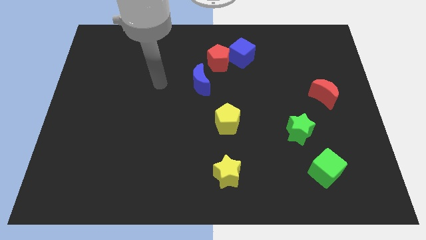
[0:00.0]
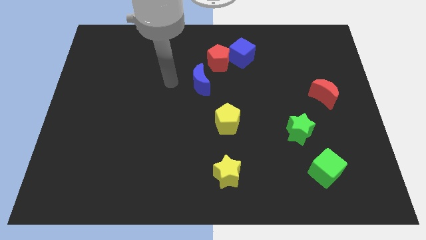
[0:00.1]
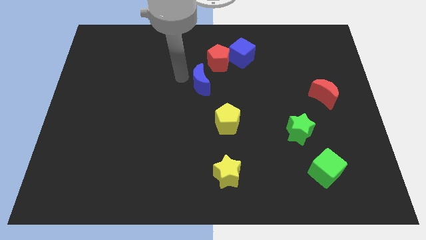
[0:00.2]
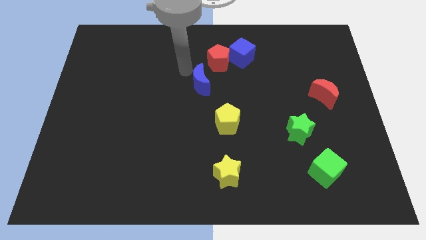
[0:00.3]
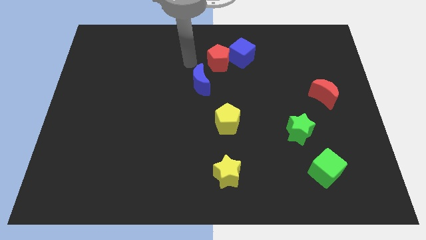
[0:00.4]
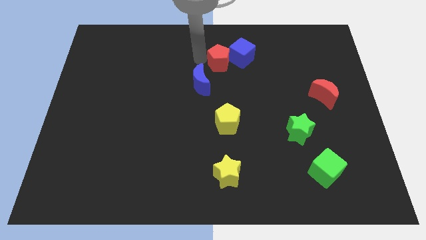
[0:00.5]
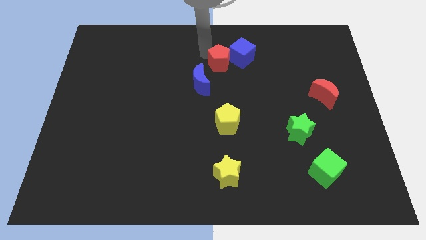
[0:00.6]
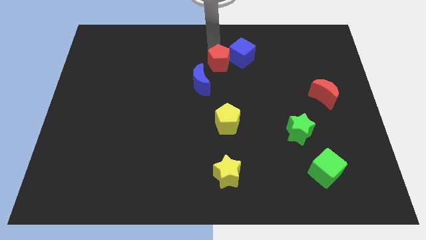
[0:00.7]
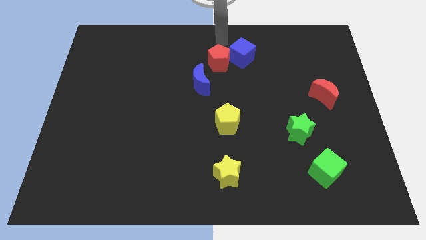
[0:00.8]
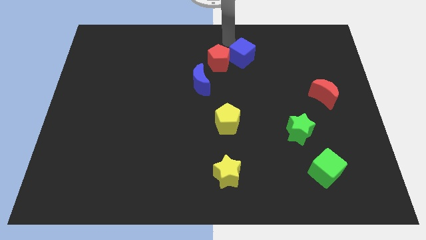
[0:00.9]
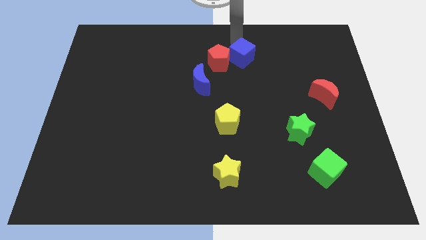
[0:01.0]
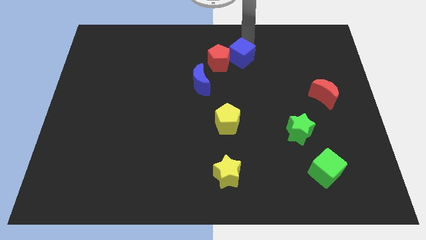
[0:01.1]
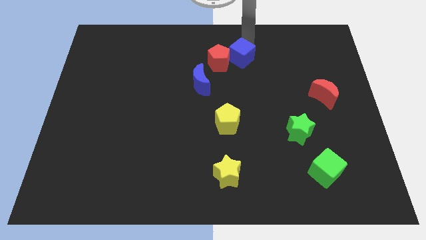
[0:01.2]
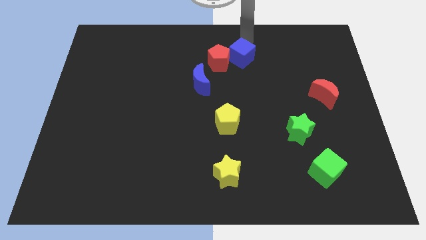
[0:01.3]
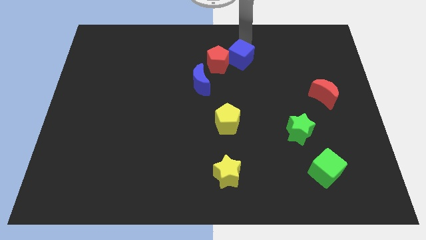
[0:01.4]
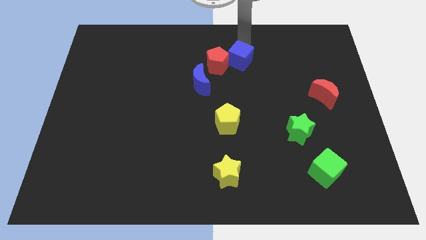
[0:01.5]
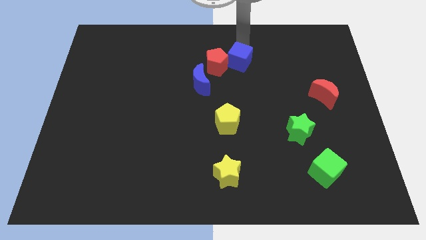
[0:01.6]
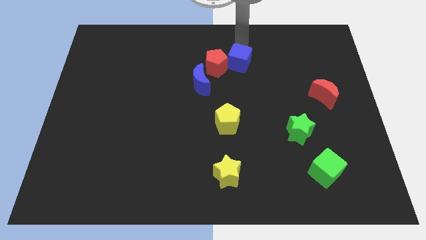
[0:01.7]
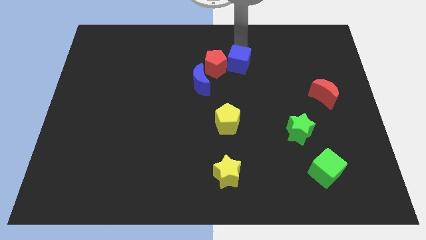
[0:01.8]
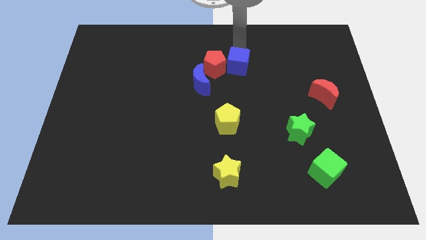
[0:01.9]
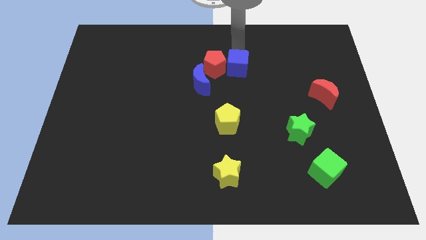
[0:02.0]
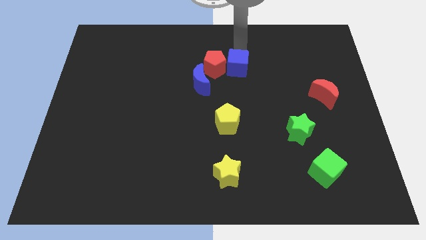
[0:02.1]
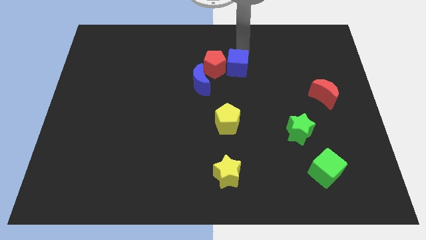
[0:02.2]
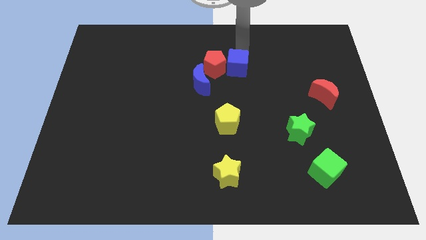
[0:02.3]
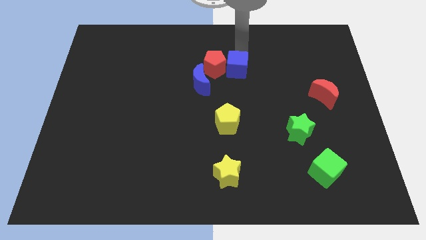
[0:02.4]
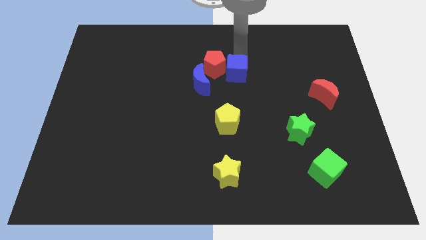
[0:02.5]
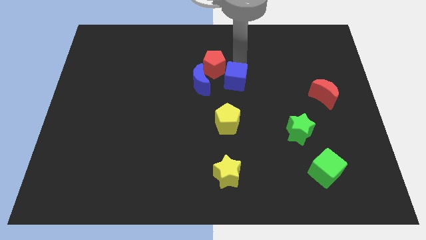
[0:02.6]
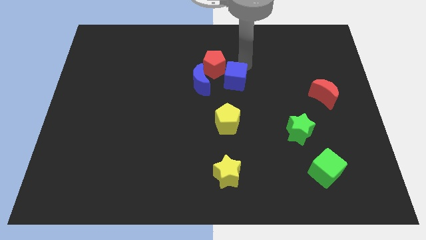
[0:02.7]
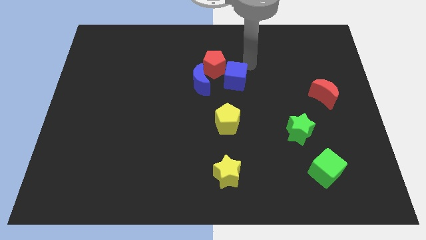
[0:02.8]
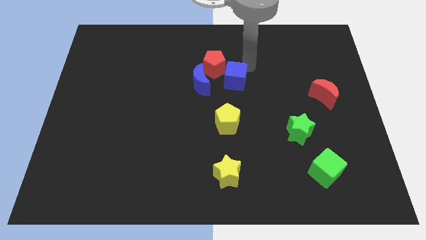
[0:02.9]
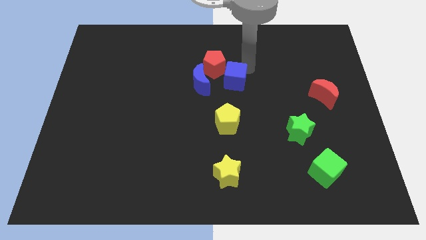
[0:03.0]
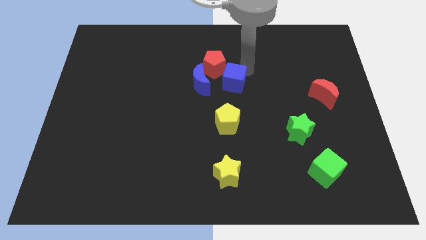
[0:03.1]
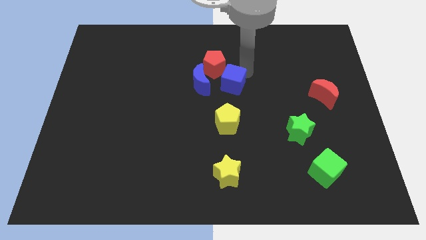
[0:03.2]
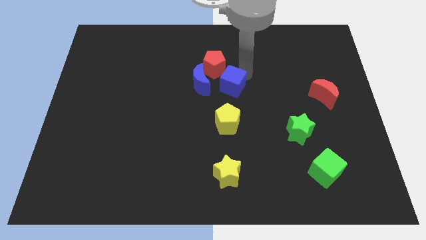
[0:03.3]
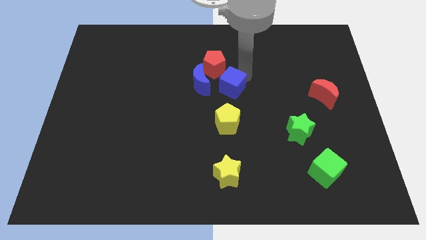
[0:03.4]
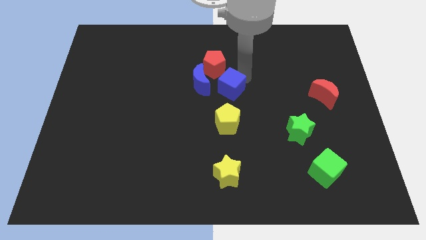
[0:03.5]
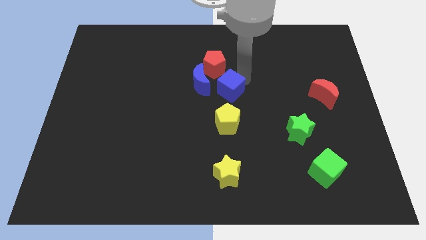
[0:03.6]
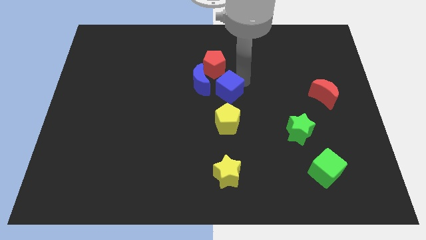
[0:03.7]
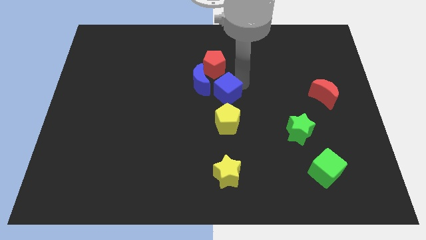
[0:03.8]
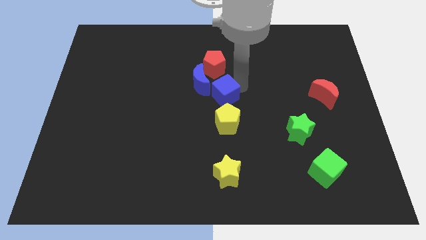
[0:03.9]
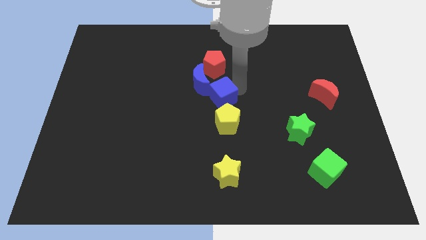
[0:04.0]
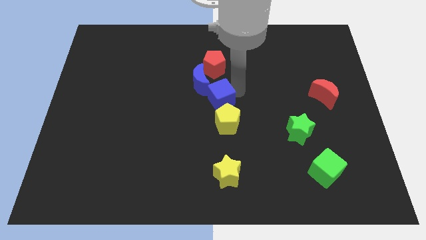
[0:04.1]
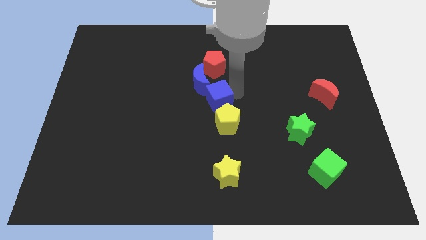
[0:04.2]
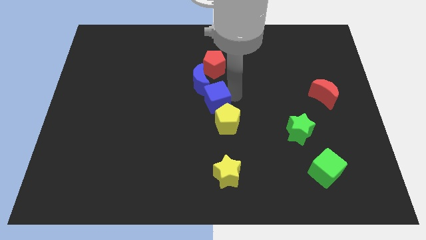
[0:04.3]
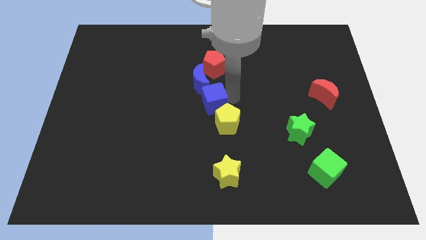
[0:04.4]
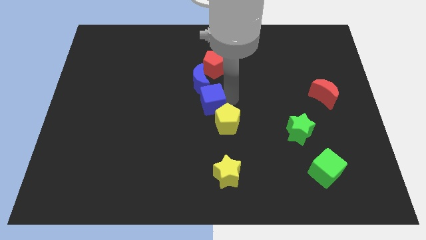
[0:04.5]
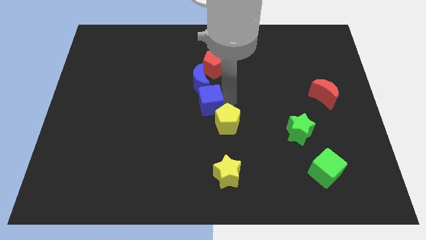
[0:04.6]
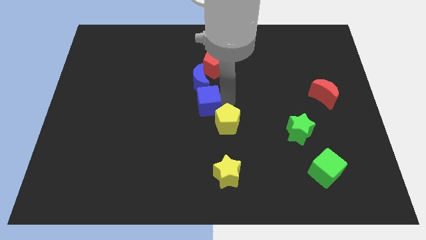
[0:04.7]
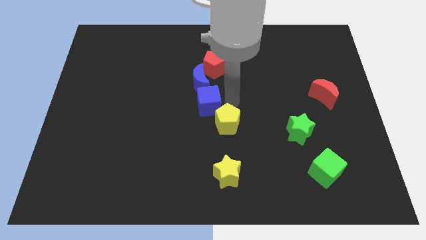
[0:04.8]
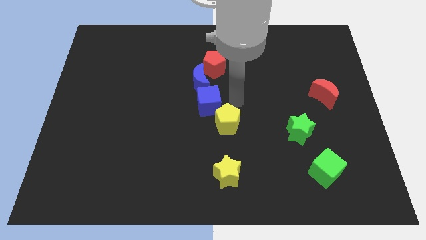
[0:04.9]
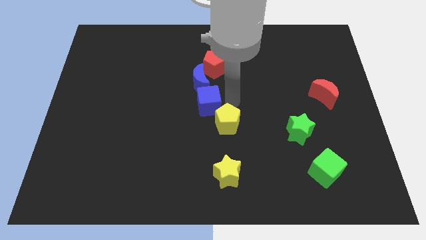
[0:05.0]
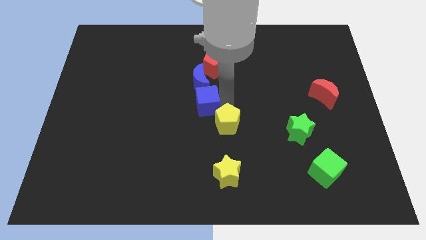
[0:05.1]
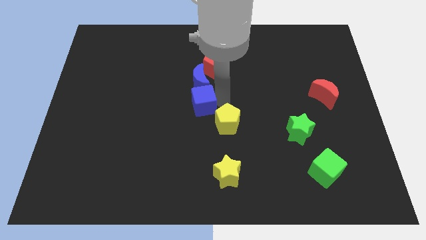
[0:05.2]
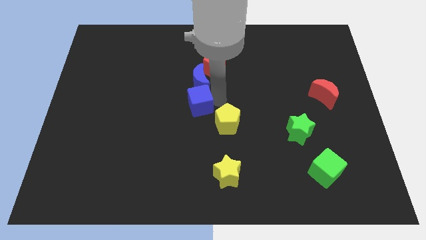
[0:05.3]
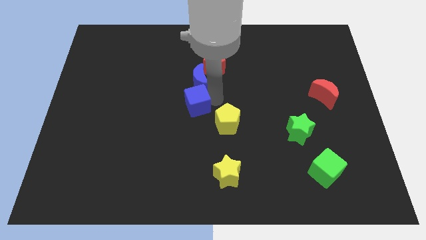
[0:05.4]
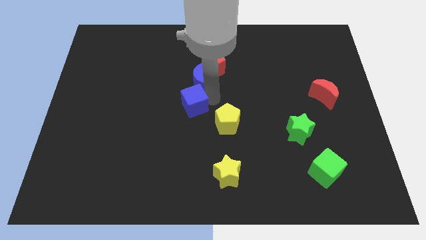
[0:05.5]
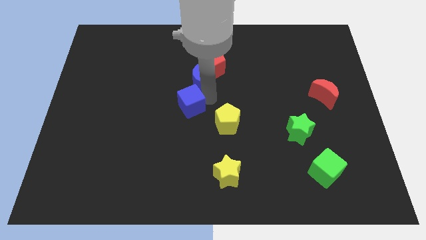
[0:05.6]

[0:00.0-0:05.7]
push the blue cube down and to the left

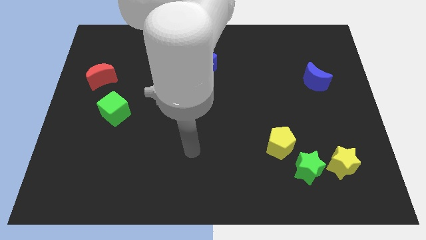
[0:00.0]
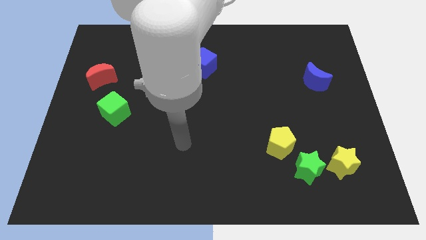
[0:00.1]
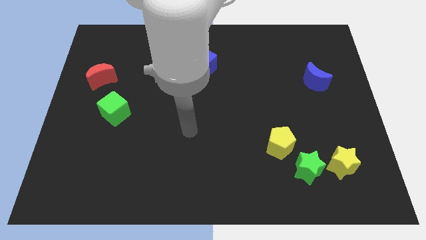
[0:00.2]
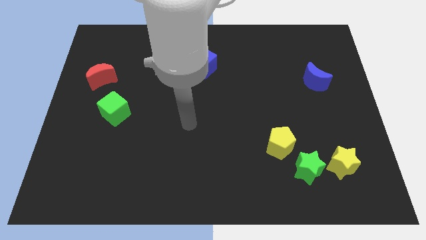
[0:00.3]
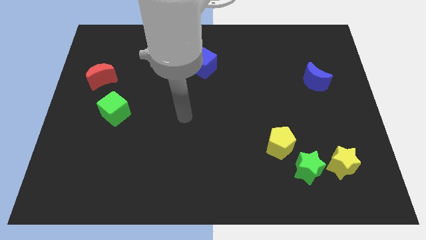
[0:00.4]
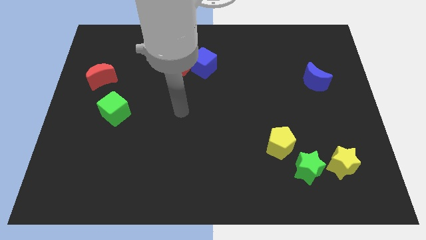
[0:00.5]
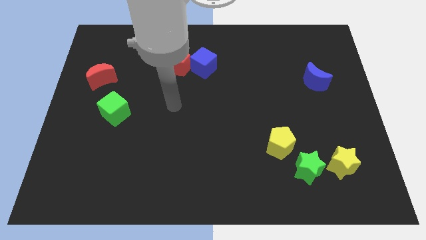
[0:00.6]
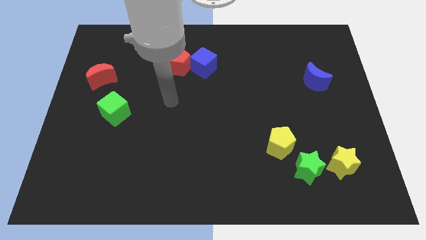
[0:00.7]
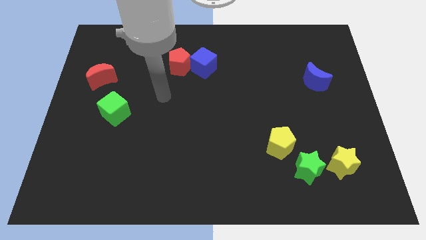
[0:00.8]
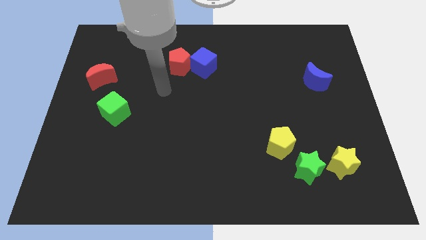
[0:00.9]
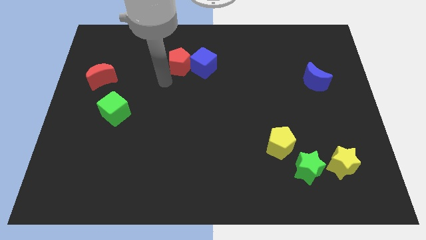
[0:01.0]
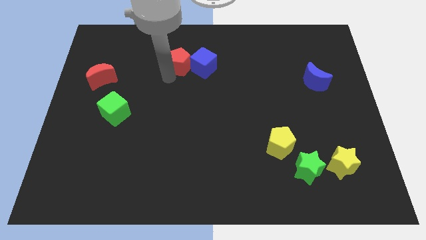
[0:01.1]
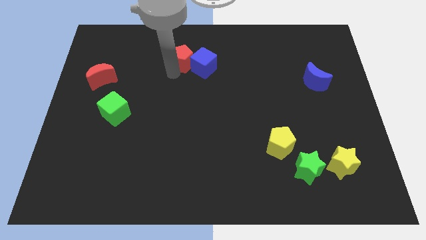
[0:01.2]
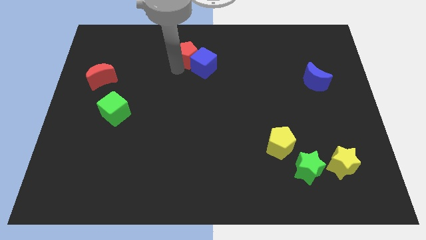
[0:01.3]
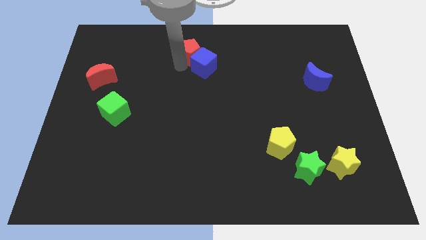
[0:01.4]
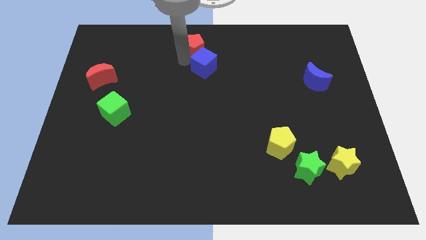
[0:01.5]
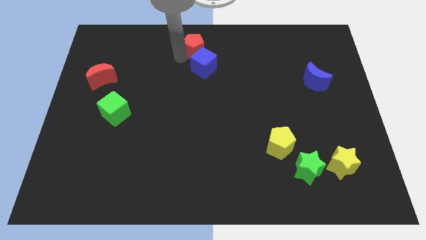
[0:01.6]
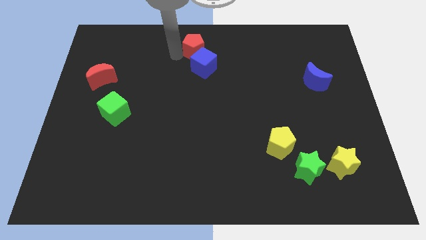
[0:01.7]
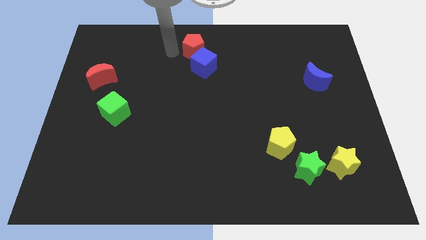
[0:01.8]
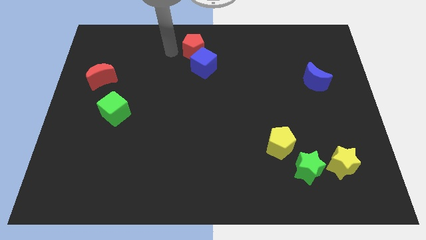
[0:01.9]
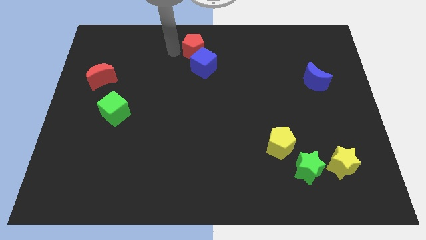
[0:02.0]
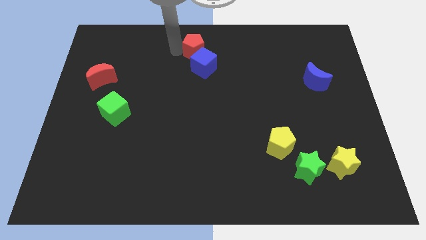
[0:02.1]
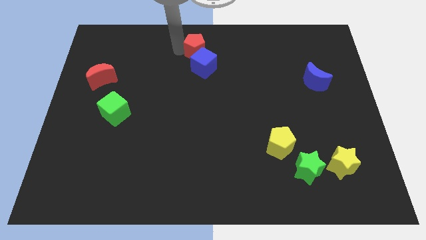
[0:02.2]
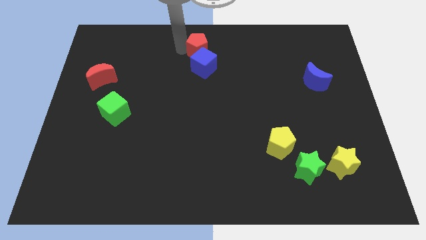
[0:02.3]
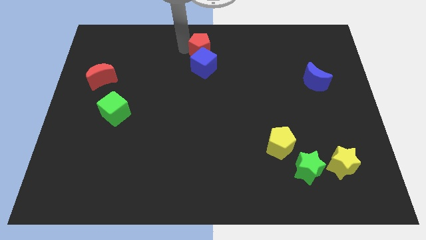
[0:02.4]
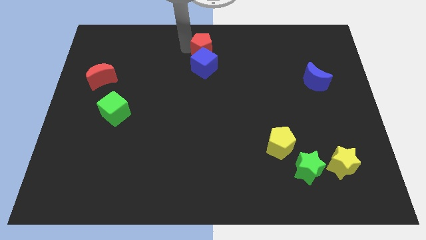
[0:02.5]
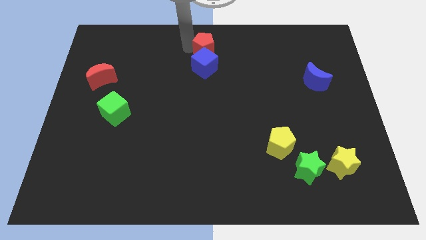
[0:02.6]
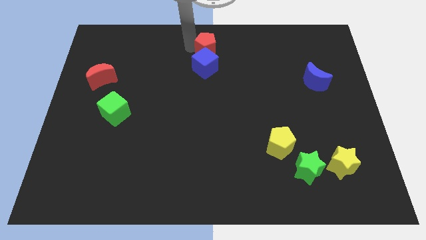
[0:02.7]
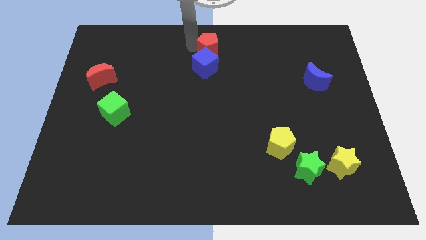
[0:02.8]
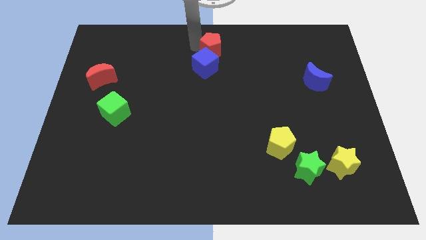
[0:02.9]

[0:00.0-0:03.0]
move the red pentagon a bit right
